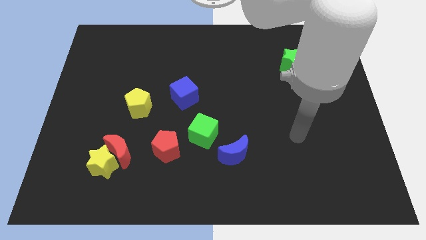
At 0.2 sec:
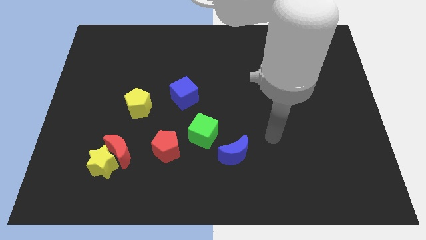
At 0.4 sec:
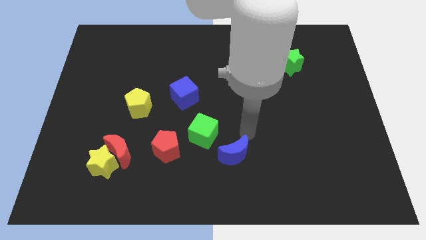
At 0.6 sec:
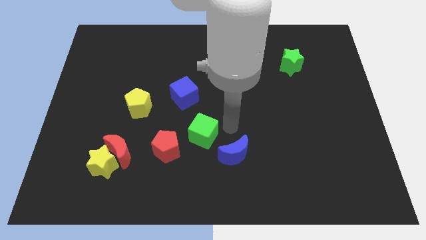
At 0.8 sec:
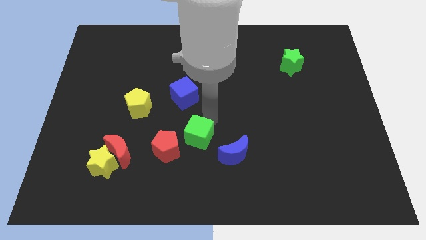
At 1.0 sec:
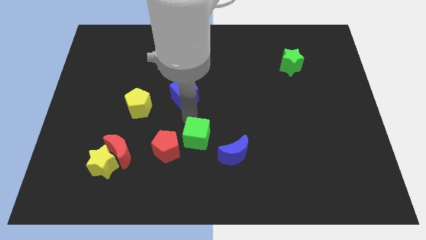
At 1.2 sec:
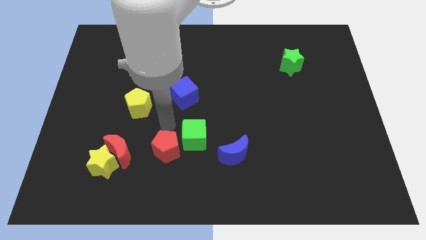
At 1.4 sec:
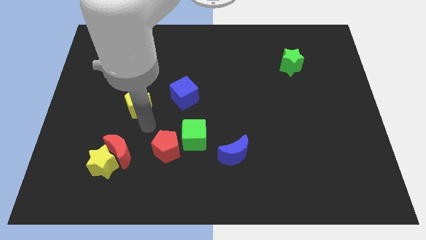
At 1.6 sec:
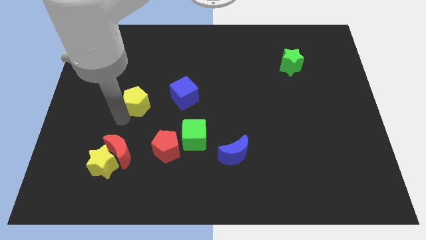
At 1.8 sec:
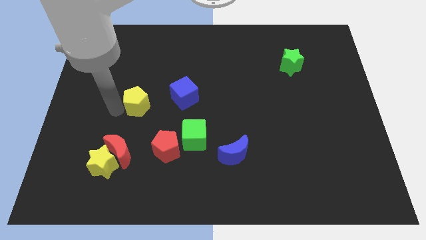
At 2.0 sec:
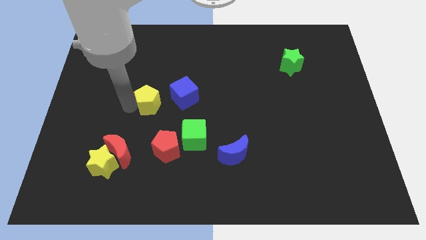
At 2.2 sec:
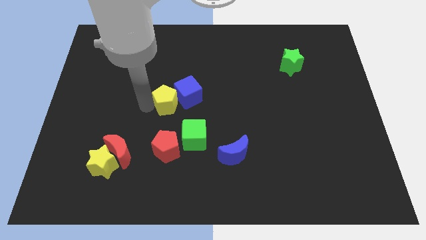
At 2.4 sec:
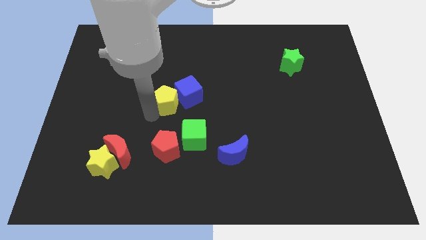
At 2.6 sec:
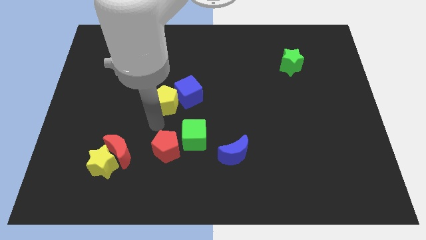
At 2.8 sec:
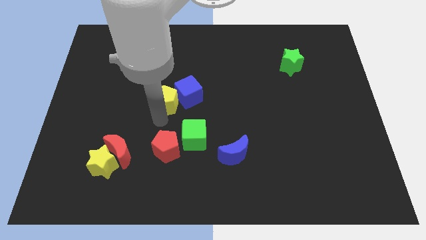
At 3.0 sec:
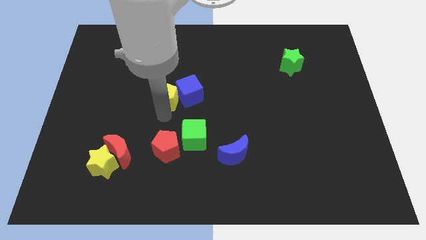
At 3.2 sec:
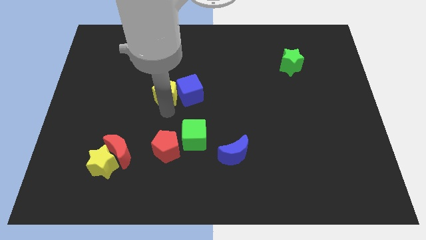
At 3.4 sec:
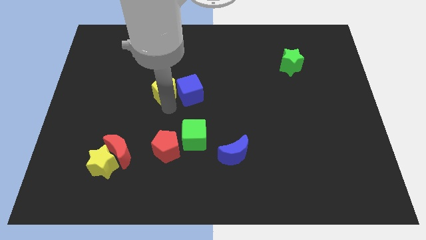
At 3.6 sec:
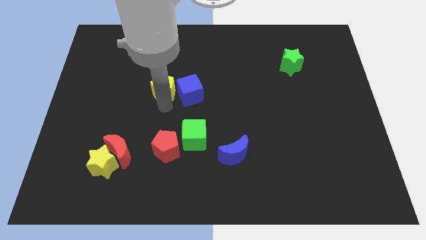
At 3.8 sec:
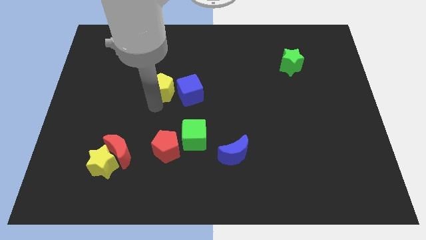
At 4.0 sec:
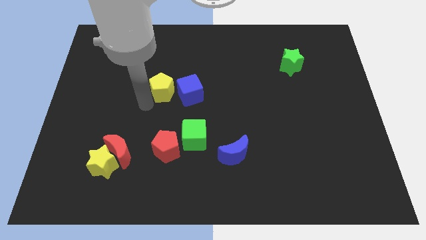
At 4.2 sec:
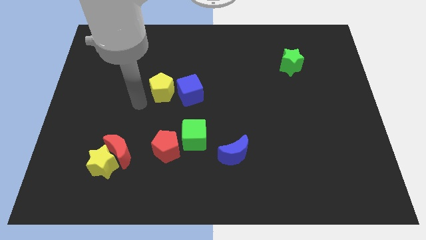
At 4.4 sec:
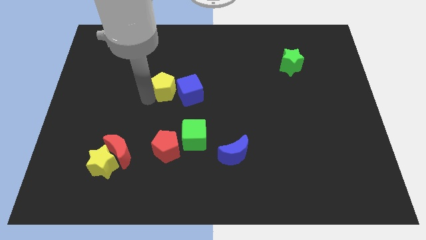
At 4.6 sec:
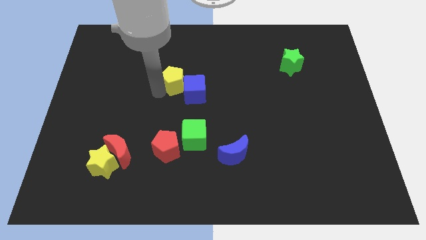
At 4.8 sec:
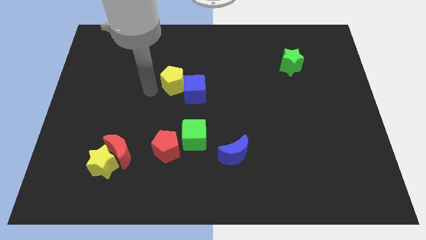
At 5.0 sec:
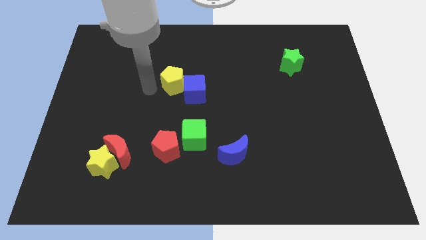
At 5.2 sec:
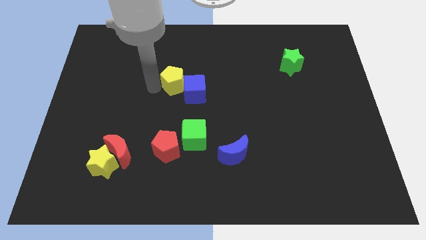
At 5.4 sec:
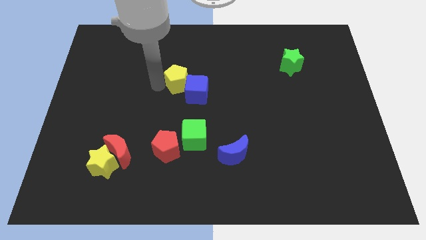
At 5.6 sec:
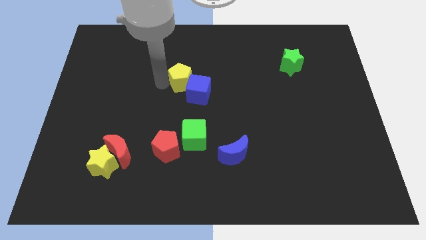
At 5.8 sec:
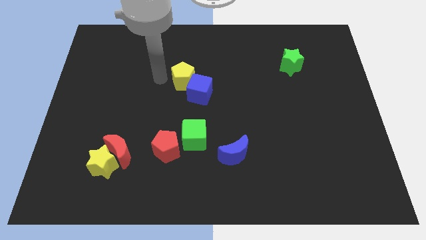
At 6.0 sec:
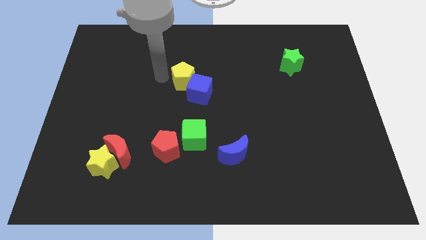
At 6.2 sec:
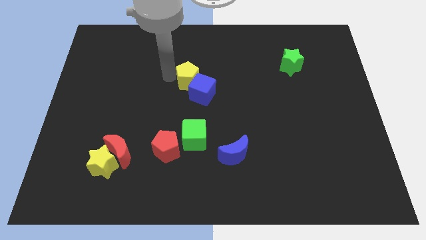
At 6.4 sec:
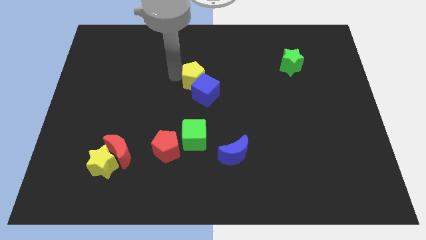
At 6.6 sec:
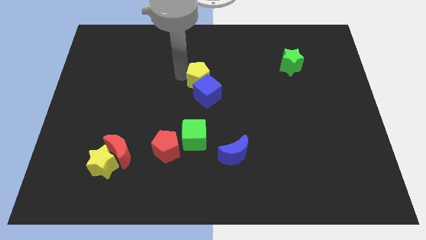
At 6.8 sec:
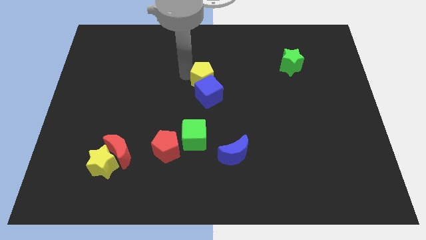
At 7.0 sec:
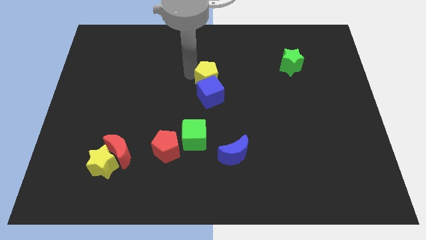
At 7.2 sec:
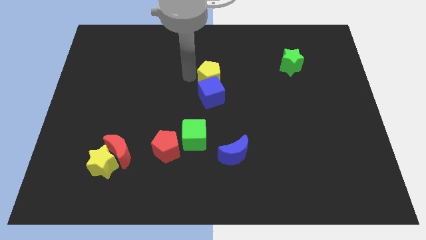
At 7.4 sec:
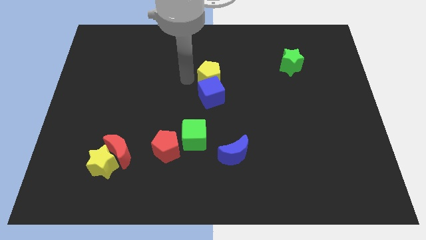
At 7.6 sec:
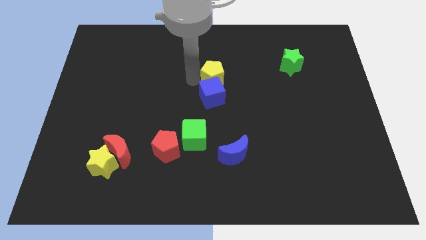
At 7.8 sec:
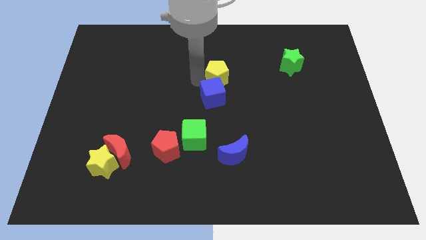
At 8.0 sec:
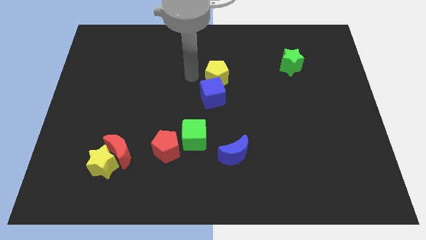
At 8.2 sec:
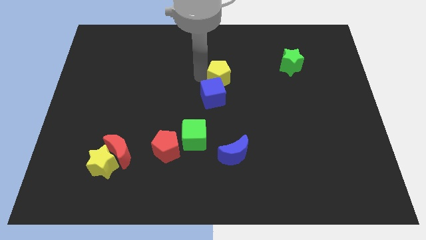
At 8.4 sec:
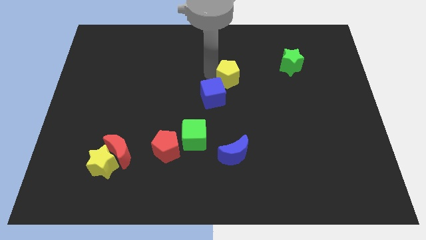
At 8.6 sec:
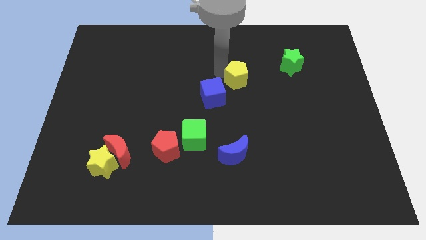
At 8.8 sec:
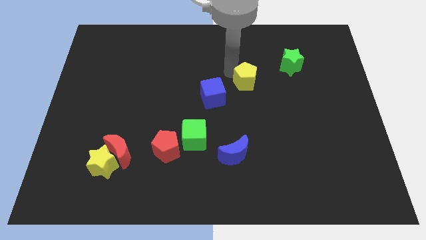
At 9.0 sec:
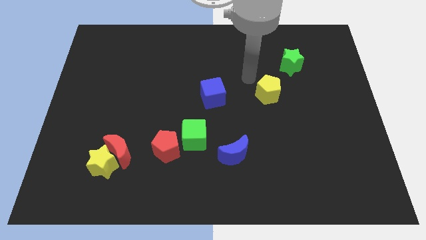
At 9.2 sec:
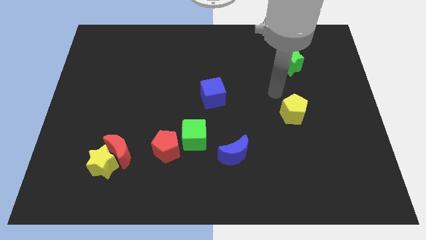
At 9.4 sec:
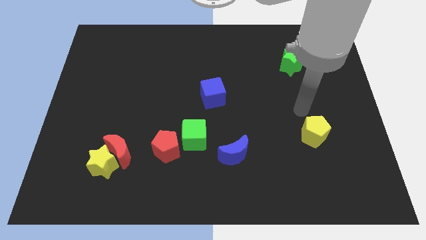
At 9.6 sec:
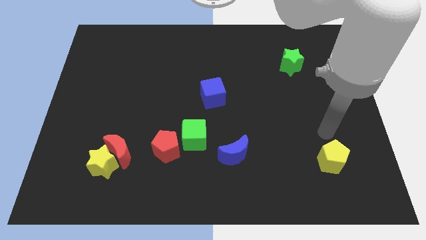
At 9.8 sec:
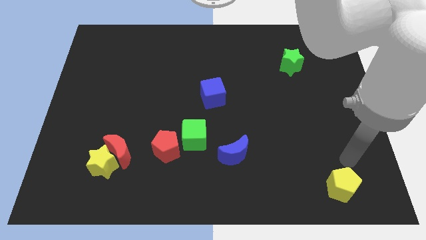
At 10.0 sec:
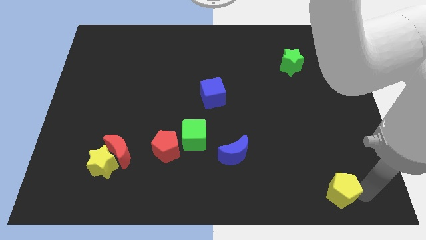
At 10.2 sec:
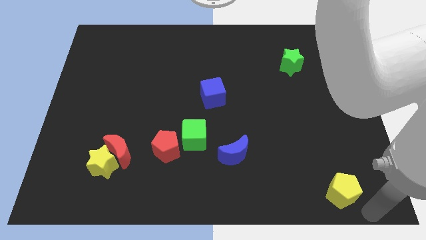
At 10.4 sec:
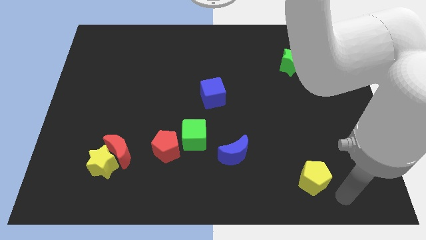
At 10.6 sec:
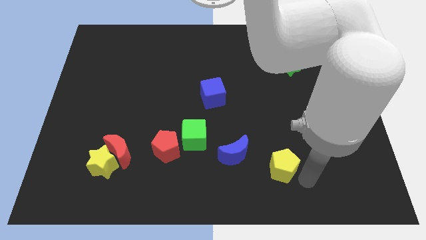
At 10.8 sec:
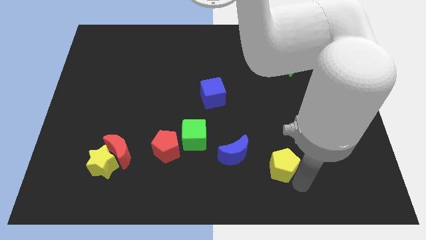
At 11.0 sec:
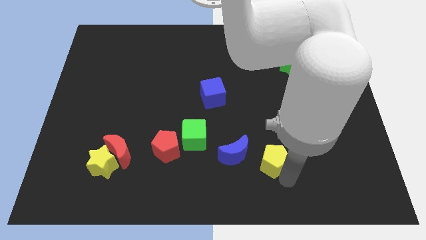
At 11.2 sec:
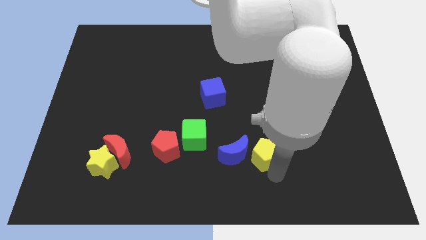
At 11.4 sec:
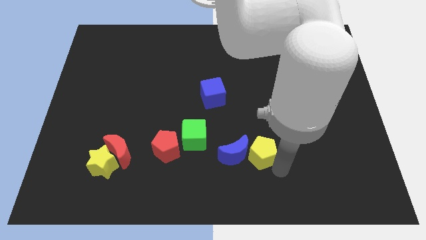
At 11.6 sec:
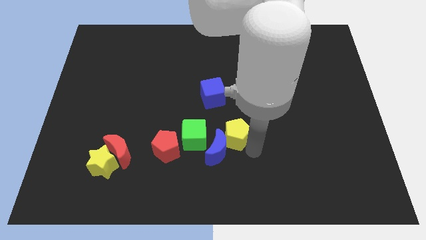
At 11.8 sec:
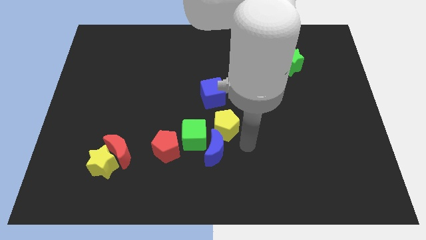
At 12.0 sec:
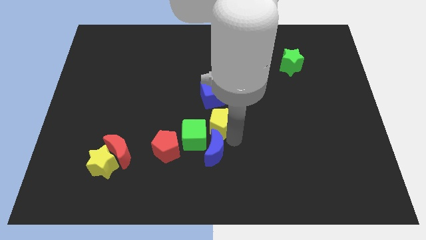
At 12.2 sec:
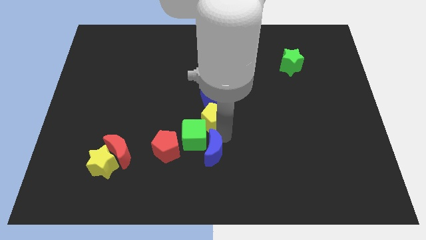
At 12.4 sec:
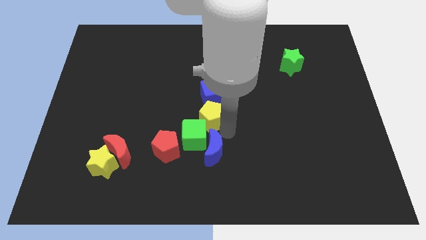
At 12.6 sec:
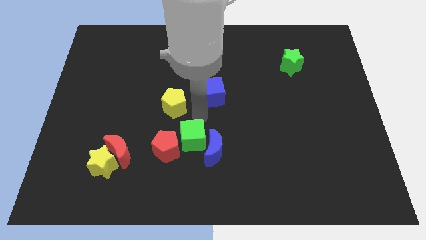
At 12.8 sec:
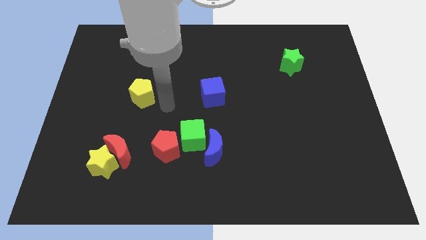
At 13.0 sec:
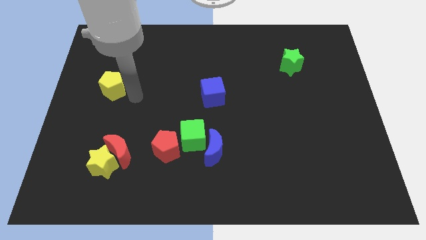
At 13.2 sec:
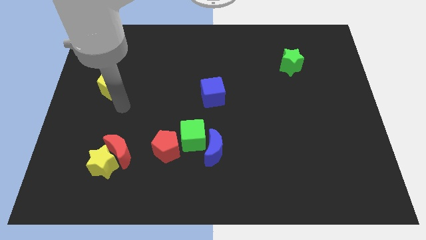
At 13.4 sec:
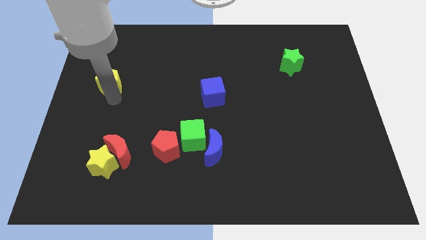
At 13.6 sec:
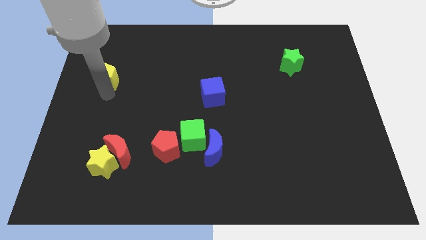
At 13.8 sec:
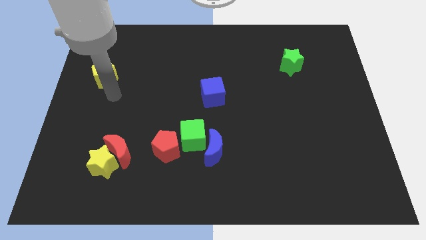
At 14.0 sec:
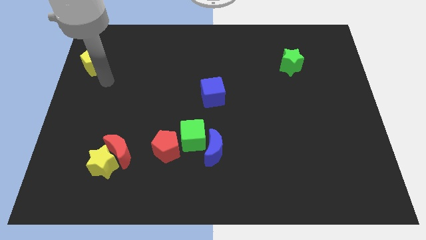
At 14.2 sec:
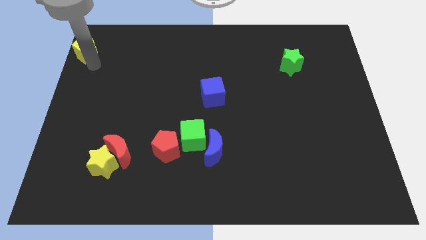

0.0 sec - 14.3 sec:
push the yellow pentagon to the top left
